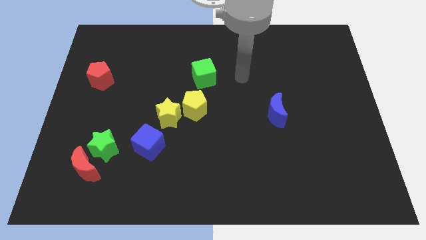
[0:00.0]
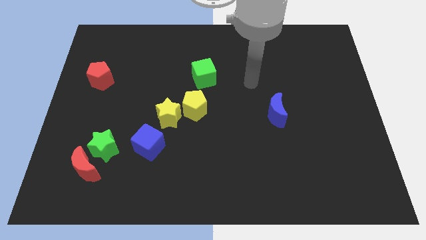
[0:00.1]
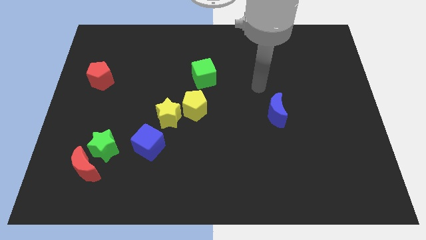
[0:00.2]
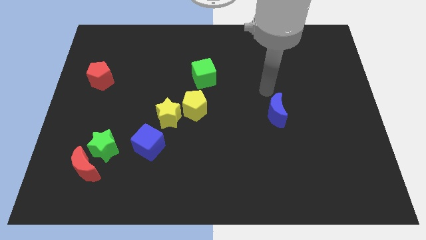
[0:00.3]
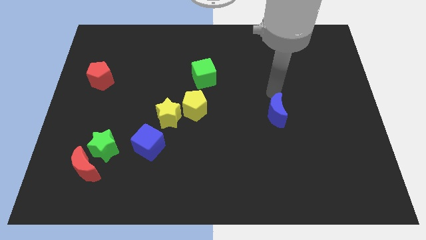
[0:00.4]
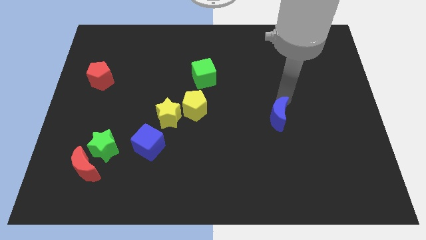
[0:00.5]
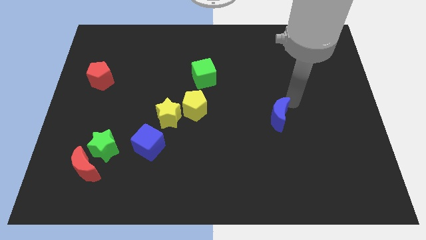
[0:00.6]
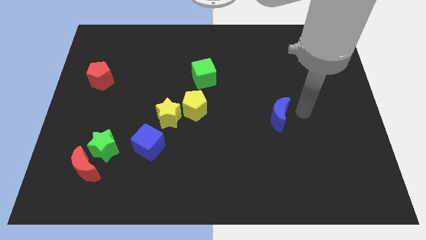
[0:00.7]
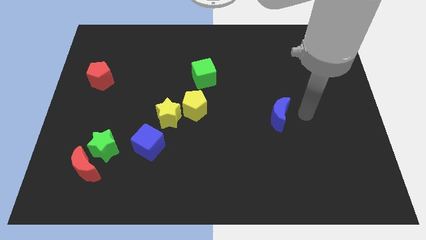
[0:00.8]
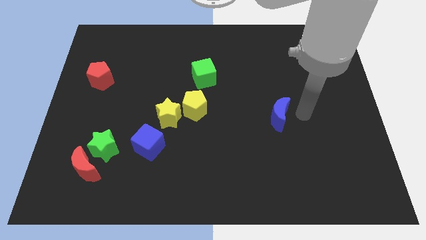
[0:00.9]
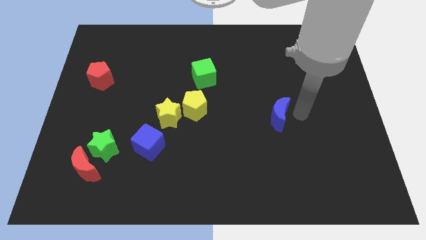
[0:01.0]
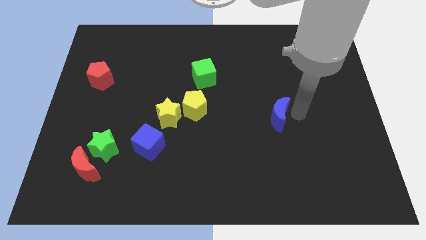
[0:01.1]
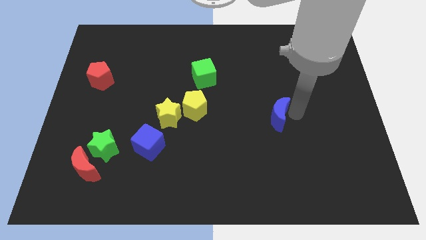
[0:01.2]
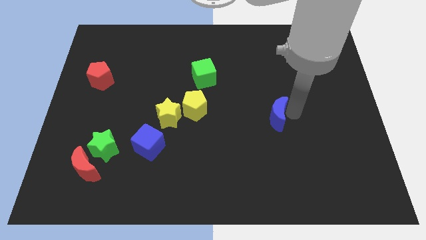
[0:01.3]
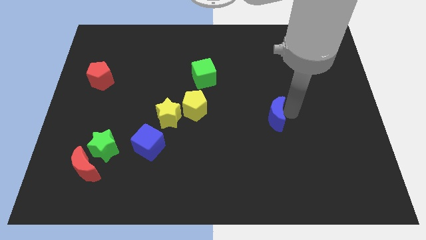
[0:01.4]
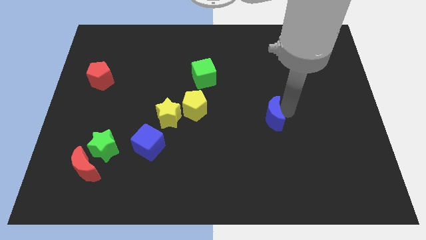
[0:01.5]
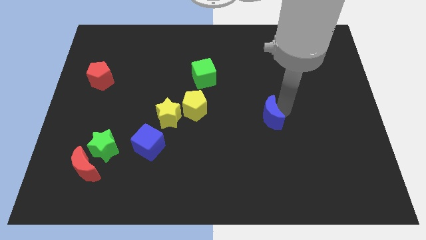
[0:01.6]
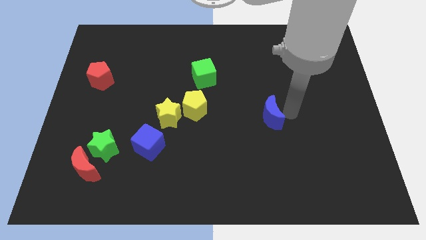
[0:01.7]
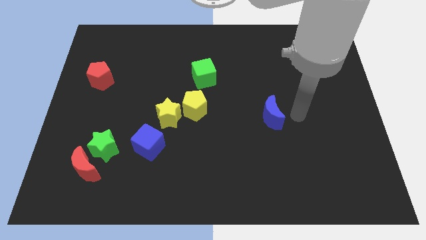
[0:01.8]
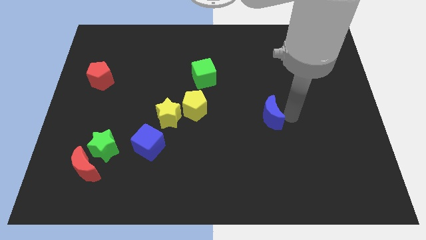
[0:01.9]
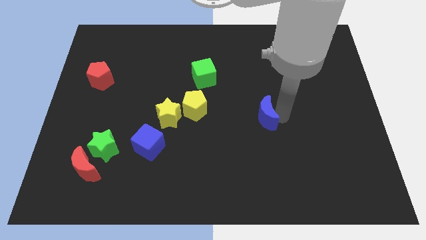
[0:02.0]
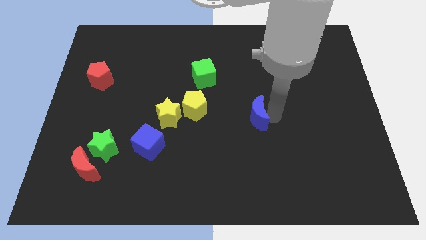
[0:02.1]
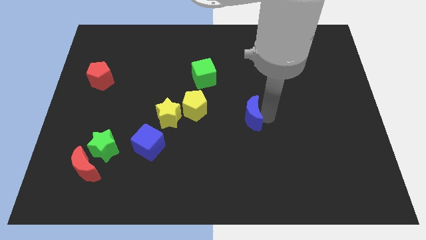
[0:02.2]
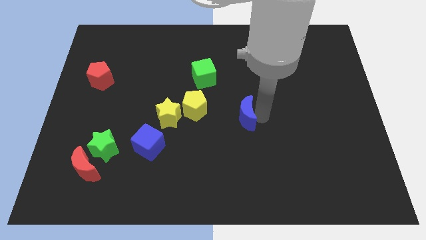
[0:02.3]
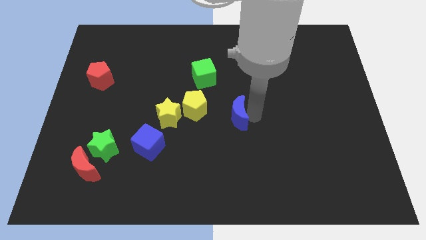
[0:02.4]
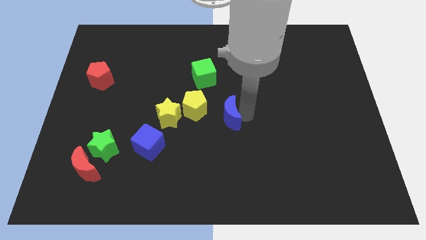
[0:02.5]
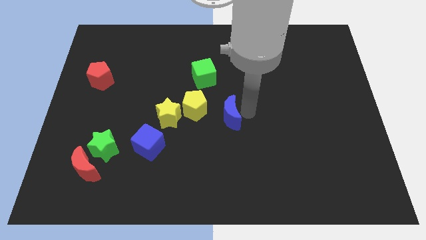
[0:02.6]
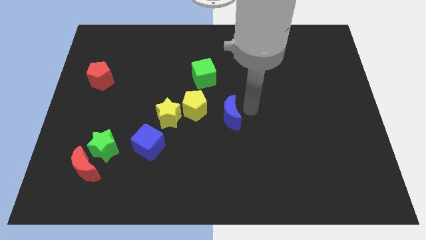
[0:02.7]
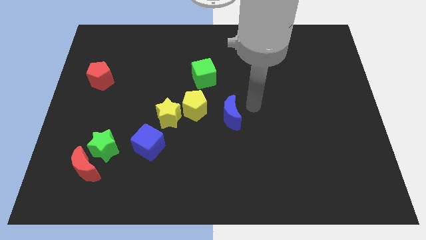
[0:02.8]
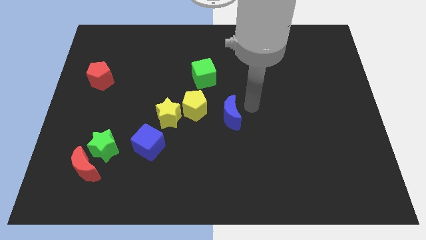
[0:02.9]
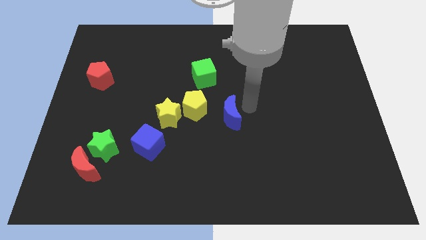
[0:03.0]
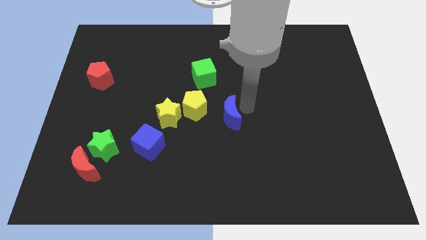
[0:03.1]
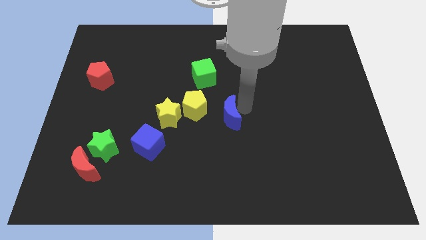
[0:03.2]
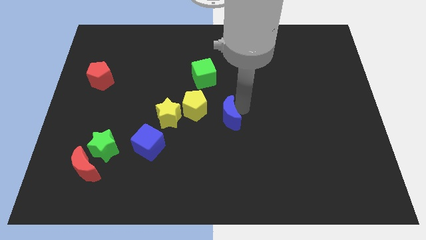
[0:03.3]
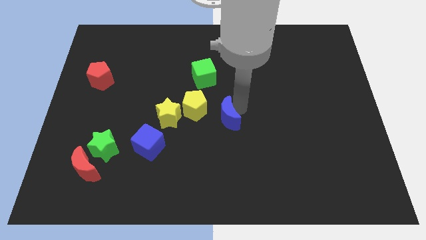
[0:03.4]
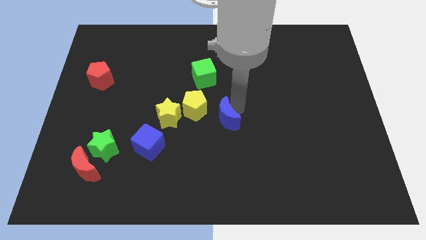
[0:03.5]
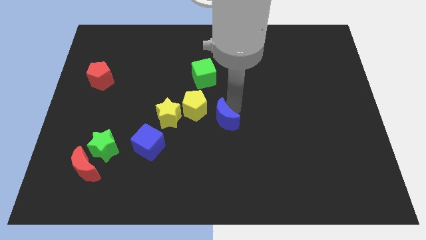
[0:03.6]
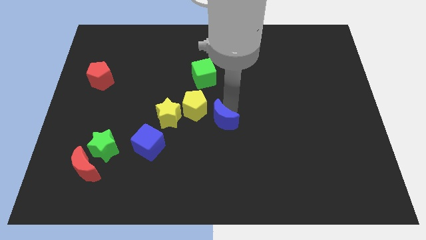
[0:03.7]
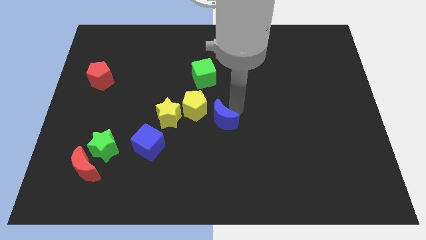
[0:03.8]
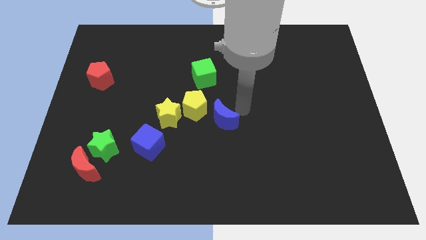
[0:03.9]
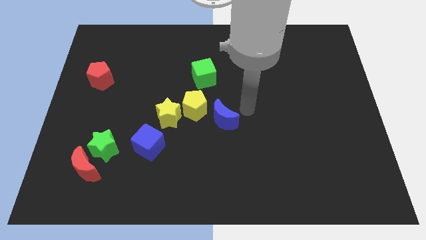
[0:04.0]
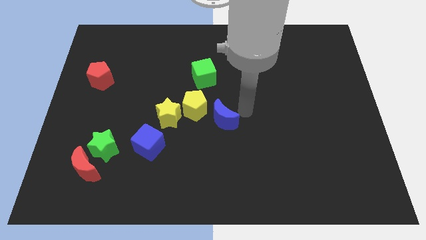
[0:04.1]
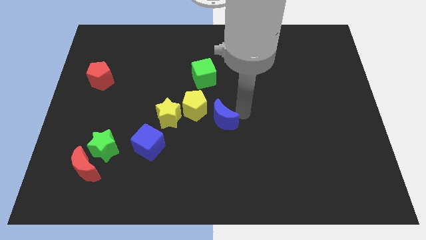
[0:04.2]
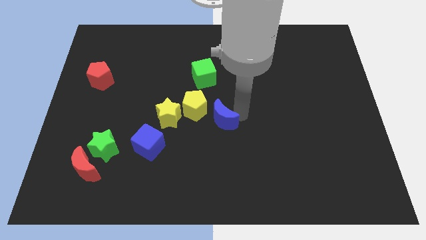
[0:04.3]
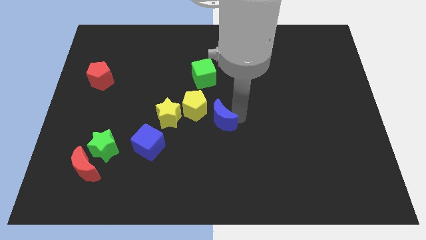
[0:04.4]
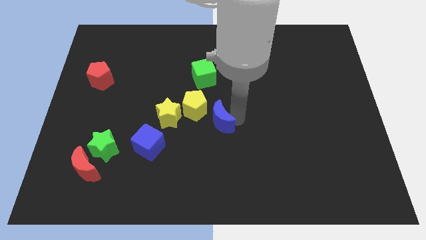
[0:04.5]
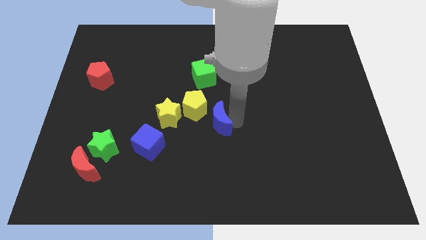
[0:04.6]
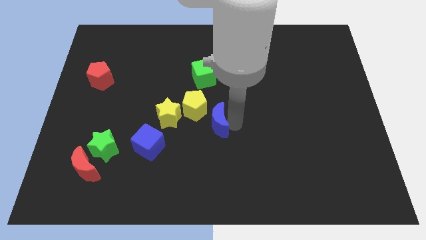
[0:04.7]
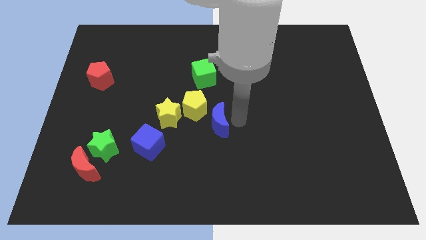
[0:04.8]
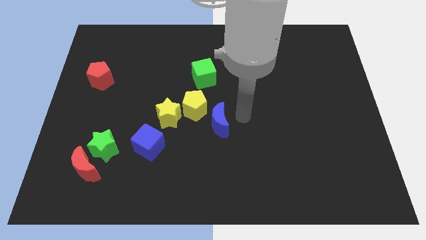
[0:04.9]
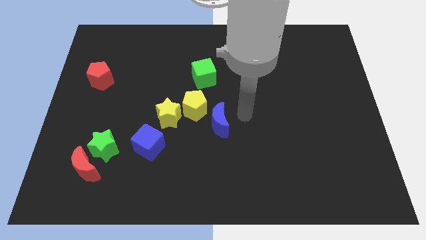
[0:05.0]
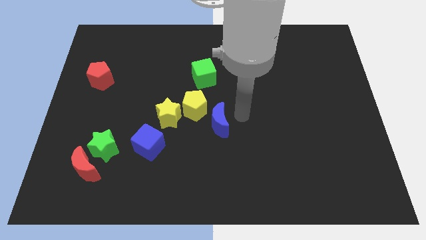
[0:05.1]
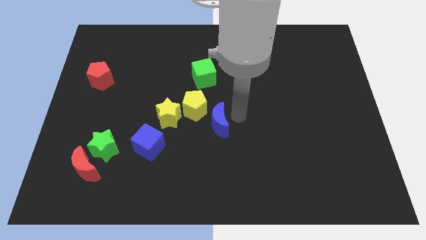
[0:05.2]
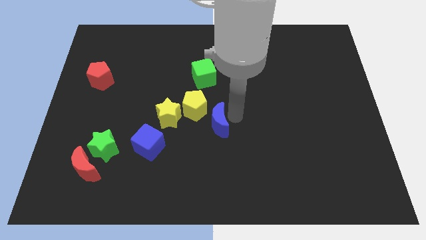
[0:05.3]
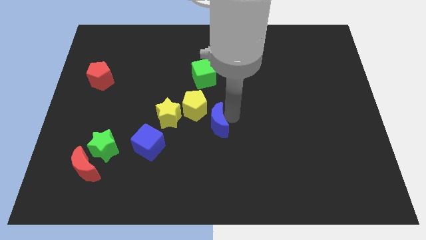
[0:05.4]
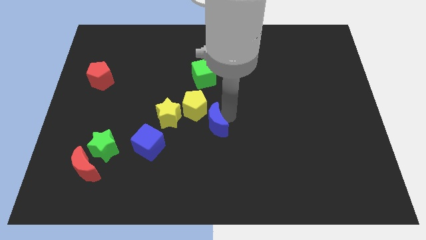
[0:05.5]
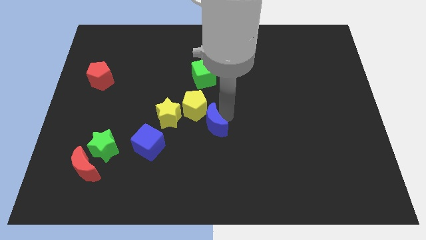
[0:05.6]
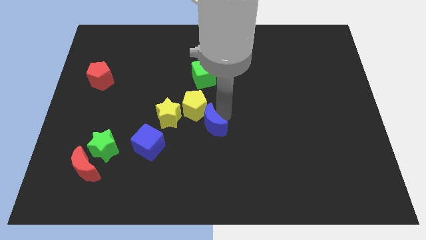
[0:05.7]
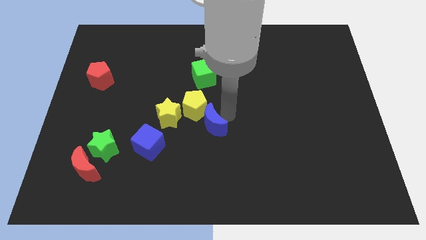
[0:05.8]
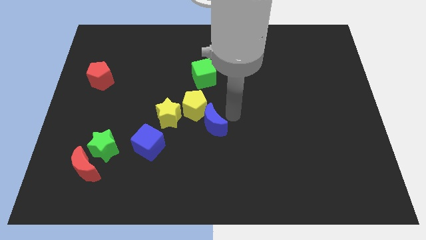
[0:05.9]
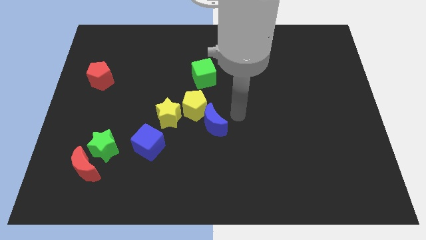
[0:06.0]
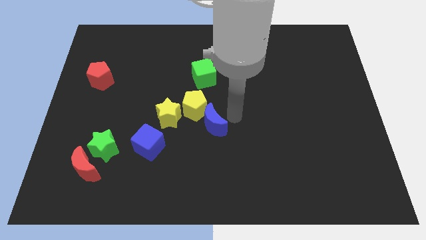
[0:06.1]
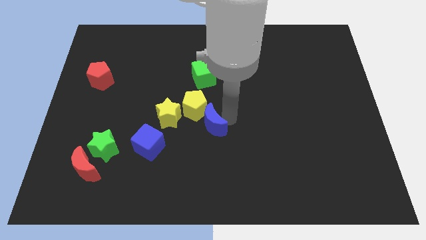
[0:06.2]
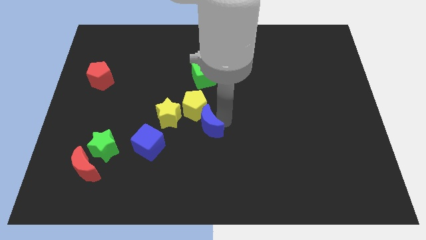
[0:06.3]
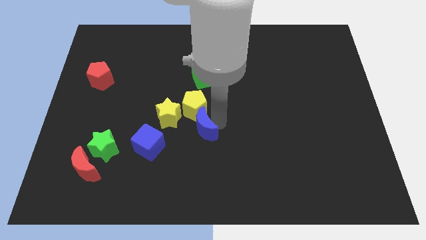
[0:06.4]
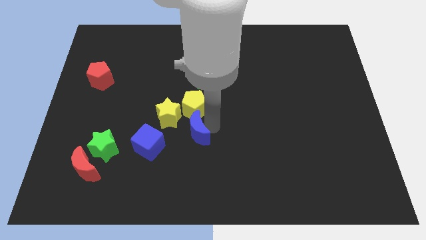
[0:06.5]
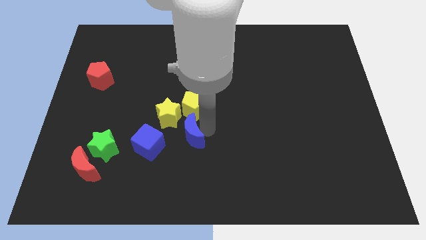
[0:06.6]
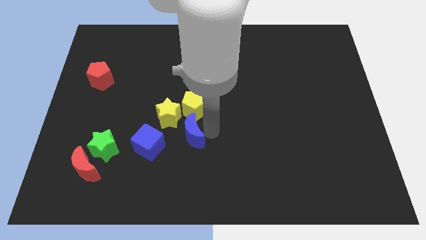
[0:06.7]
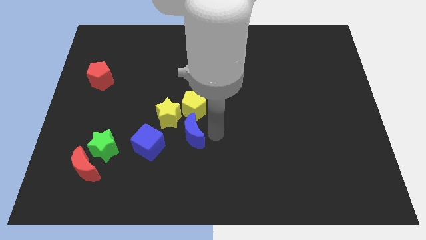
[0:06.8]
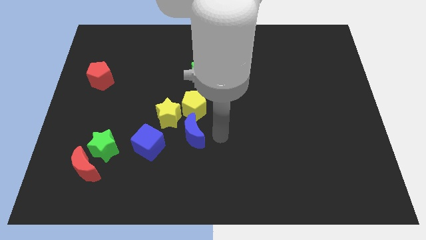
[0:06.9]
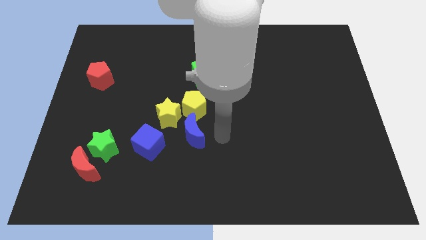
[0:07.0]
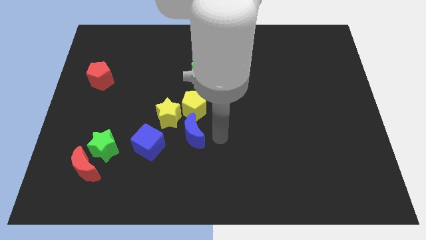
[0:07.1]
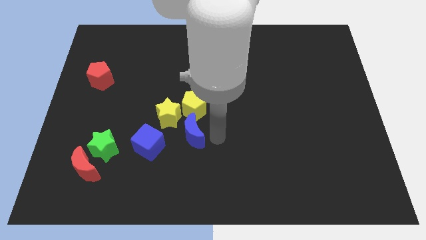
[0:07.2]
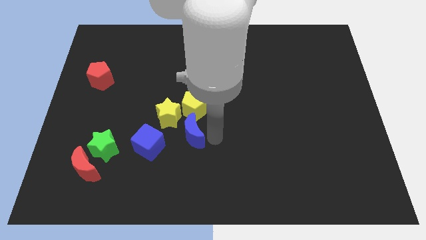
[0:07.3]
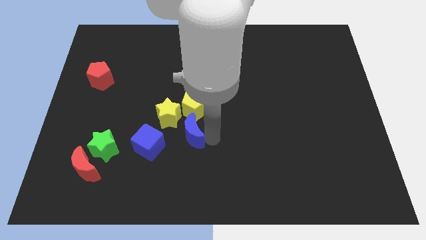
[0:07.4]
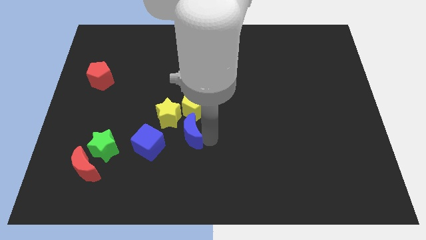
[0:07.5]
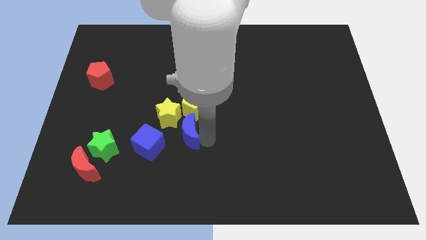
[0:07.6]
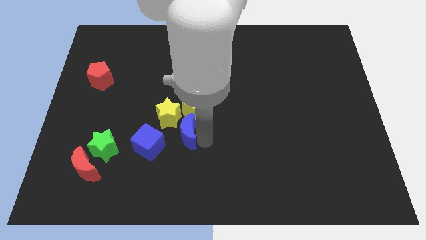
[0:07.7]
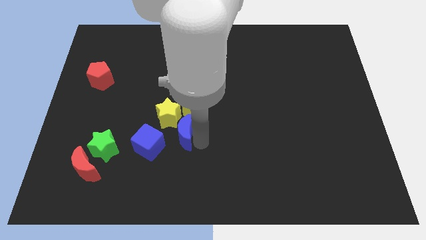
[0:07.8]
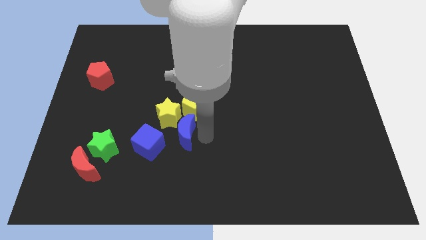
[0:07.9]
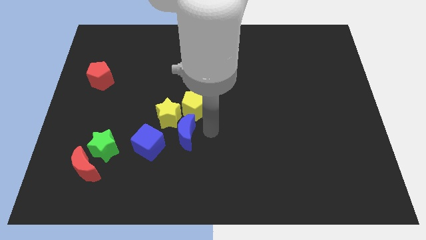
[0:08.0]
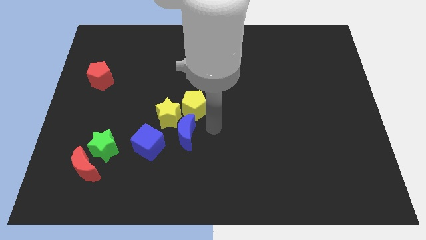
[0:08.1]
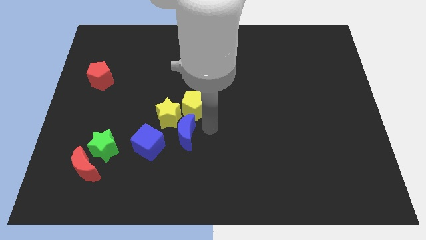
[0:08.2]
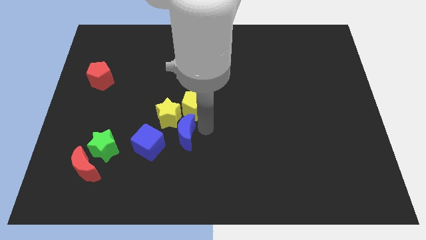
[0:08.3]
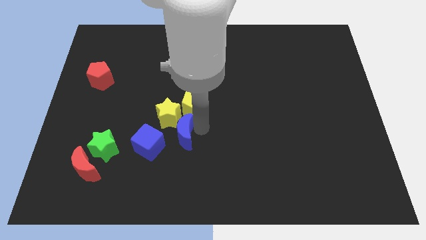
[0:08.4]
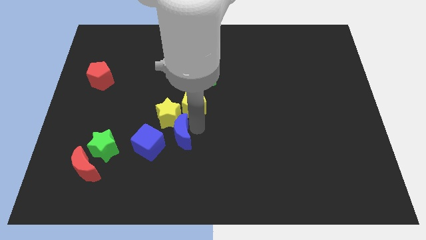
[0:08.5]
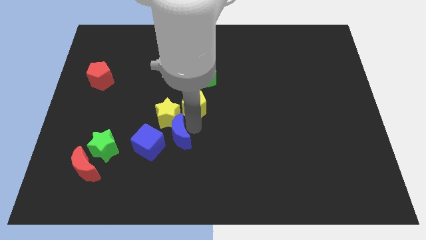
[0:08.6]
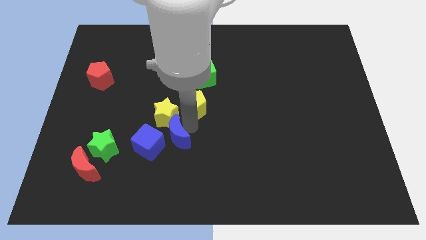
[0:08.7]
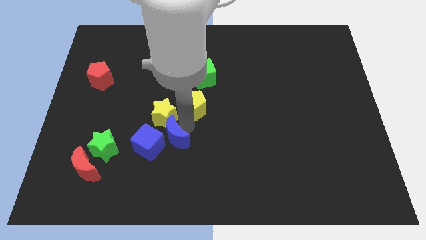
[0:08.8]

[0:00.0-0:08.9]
slide the blue moon towards the blue cube
